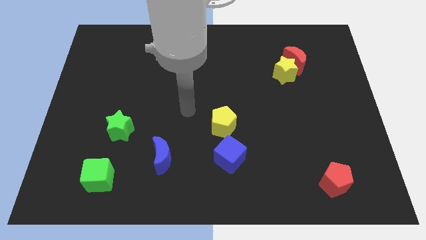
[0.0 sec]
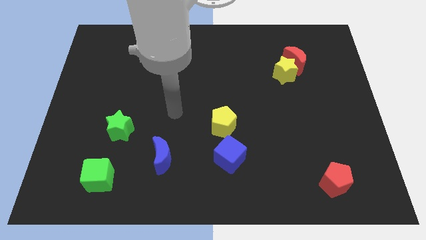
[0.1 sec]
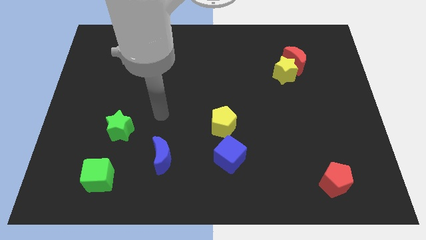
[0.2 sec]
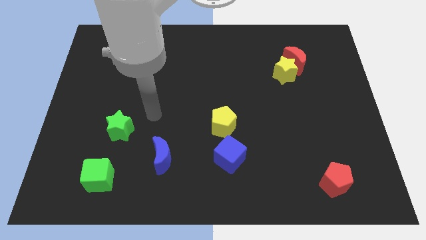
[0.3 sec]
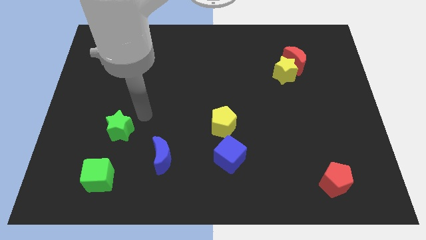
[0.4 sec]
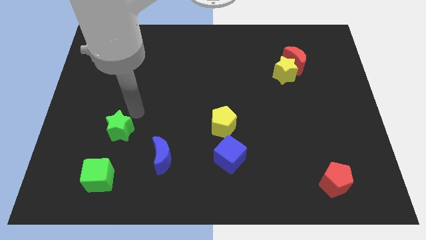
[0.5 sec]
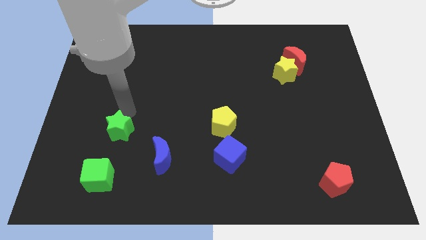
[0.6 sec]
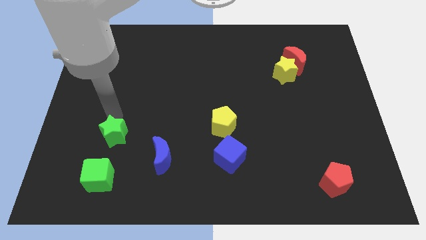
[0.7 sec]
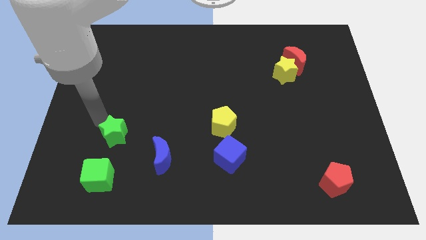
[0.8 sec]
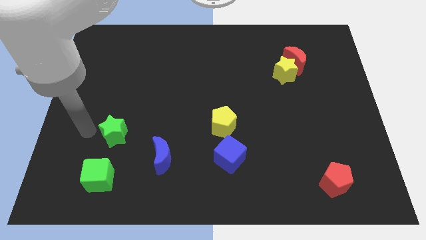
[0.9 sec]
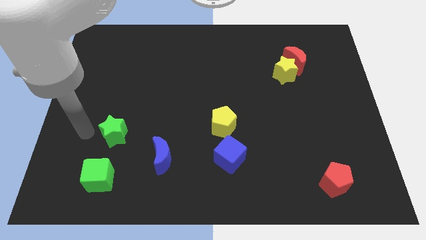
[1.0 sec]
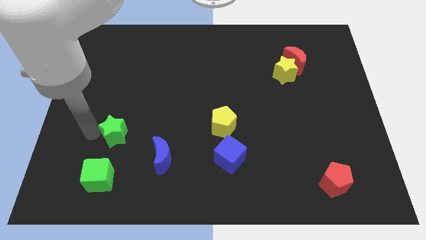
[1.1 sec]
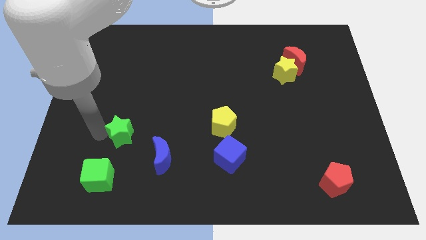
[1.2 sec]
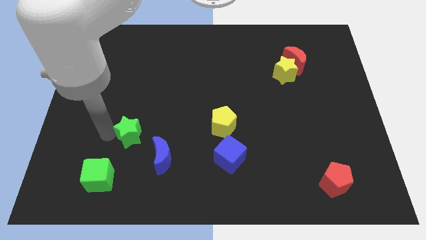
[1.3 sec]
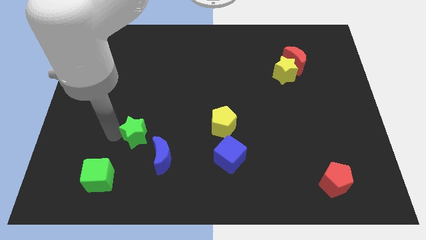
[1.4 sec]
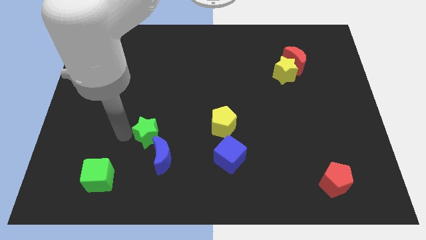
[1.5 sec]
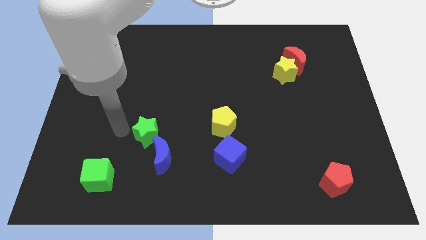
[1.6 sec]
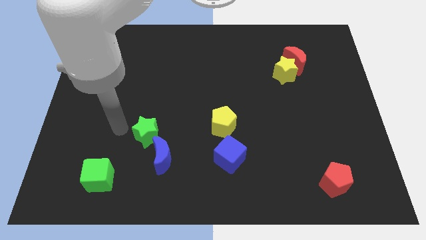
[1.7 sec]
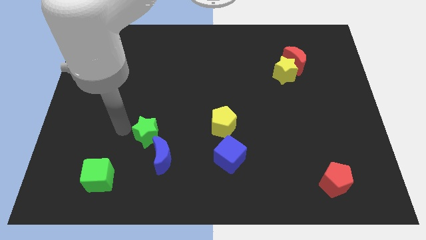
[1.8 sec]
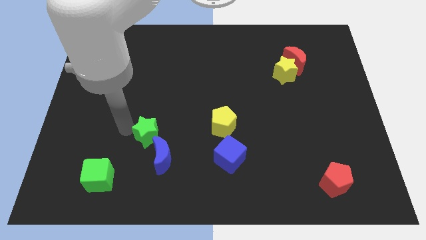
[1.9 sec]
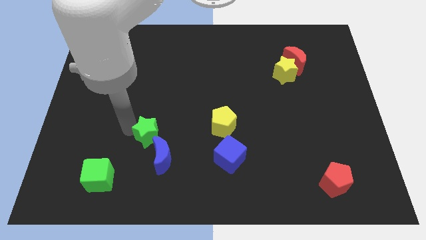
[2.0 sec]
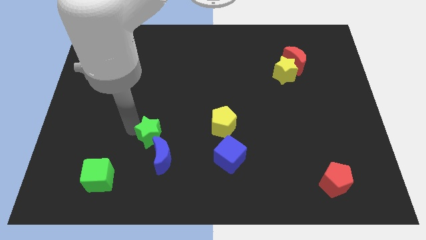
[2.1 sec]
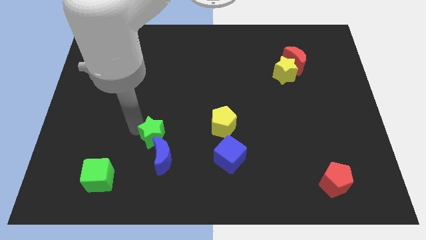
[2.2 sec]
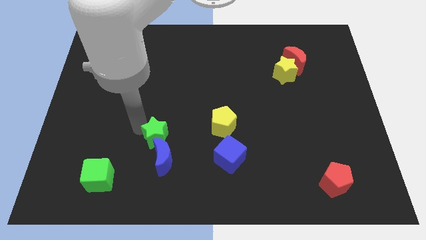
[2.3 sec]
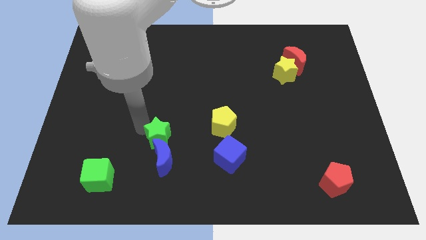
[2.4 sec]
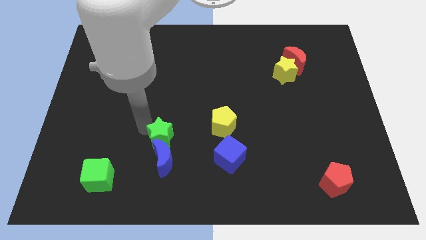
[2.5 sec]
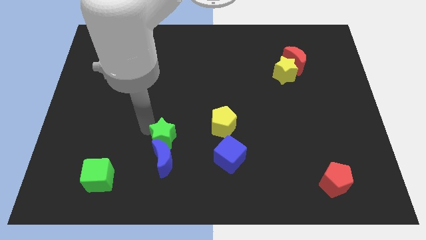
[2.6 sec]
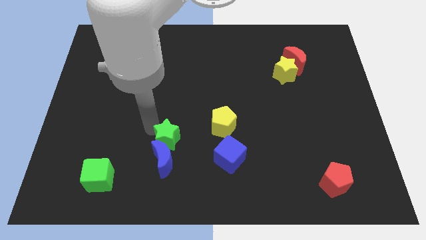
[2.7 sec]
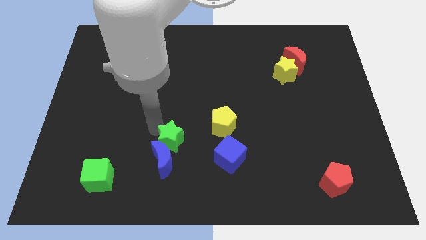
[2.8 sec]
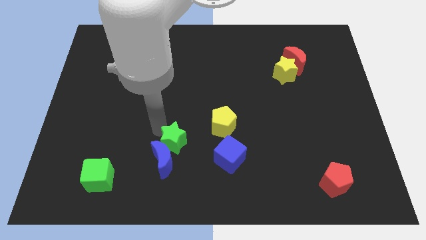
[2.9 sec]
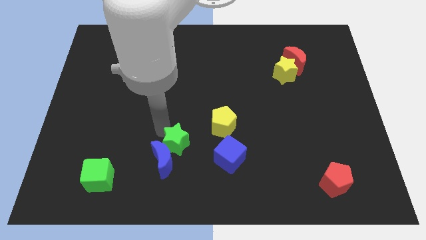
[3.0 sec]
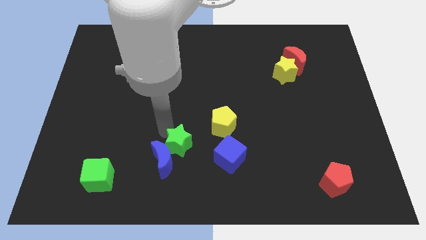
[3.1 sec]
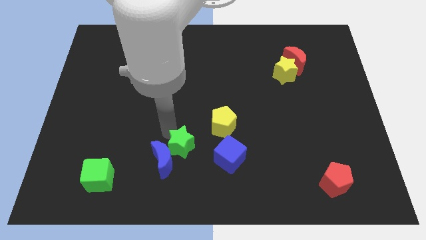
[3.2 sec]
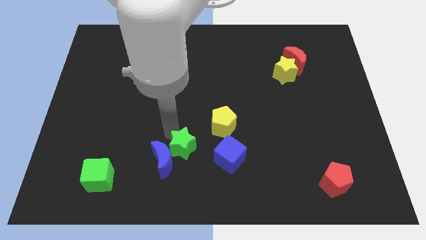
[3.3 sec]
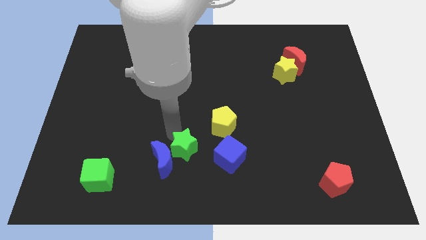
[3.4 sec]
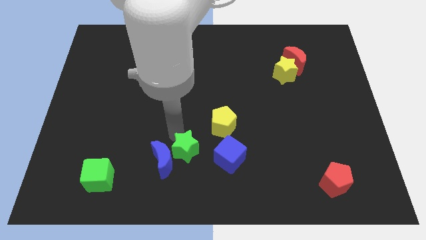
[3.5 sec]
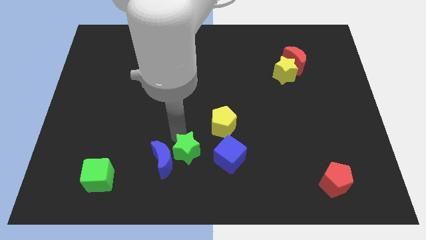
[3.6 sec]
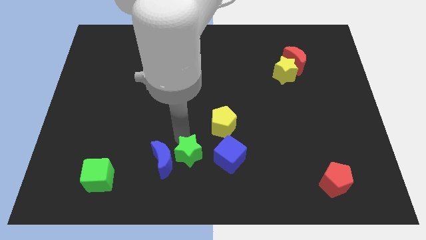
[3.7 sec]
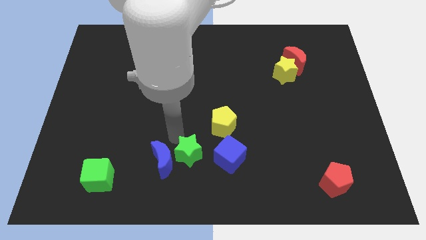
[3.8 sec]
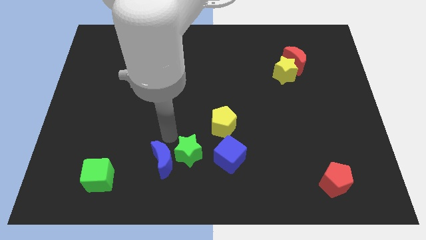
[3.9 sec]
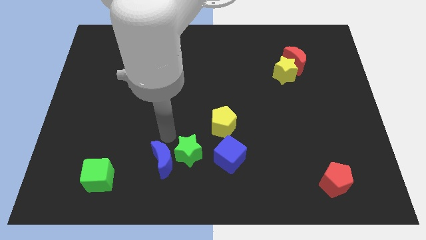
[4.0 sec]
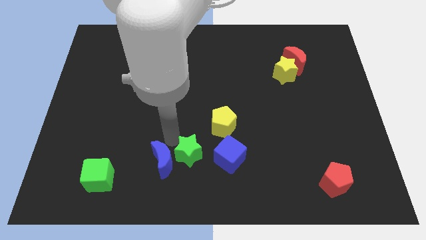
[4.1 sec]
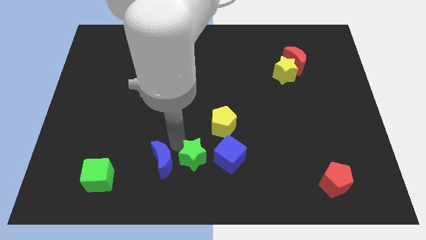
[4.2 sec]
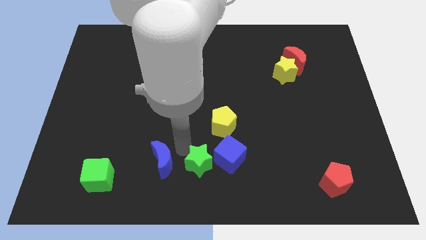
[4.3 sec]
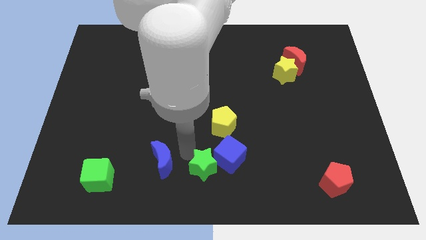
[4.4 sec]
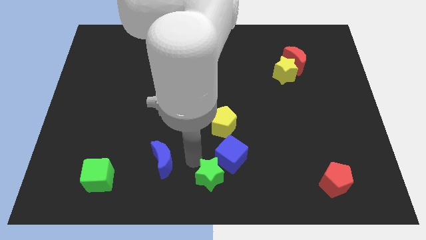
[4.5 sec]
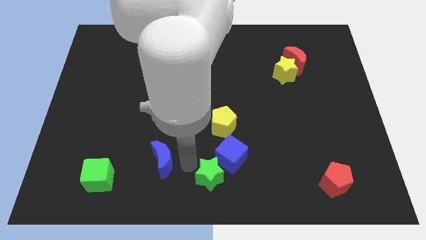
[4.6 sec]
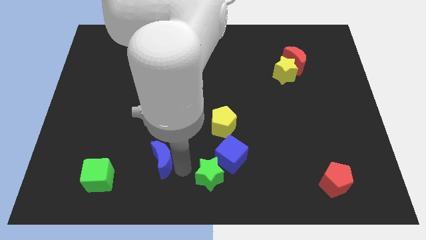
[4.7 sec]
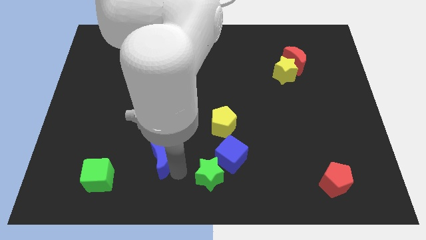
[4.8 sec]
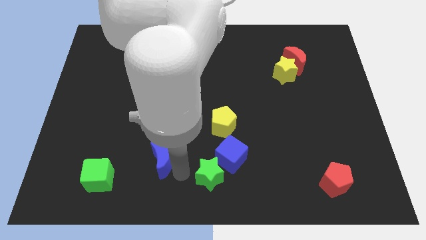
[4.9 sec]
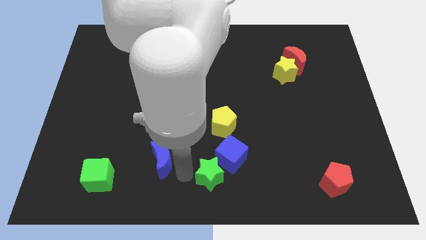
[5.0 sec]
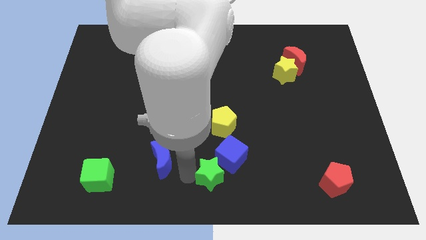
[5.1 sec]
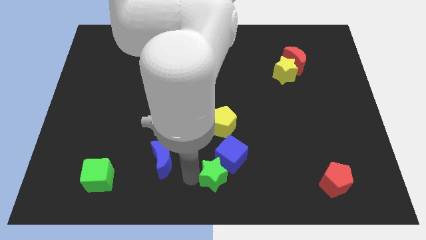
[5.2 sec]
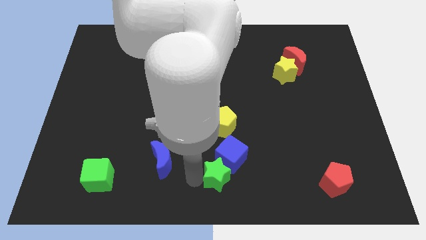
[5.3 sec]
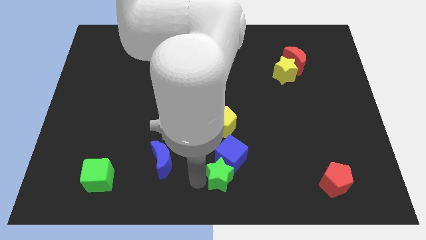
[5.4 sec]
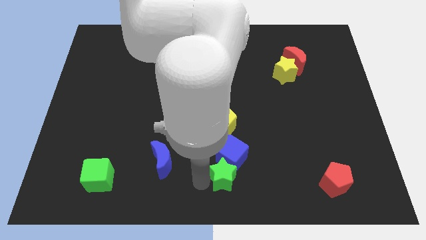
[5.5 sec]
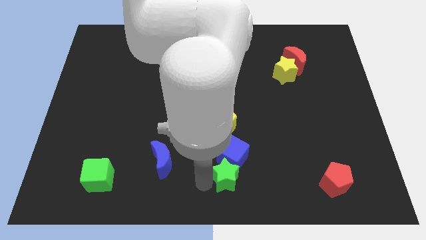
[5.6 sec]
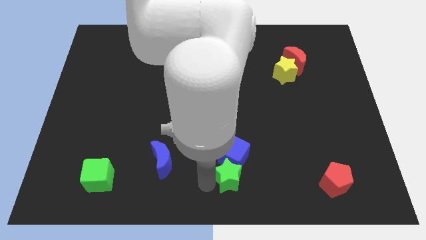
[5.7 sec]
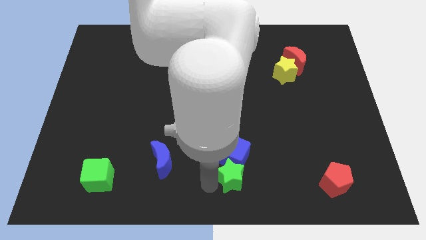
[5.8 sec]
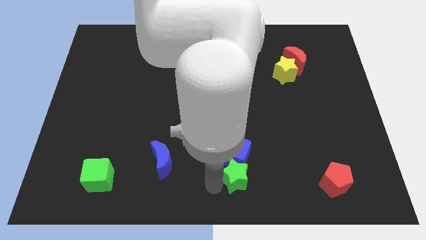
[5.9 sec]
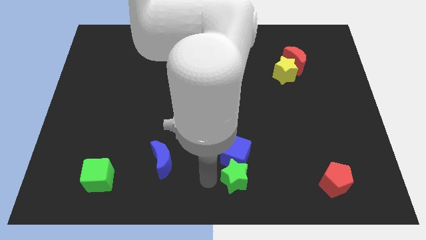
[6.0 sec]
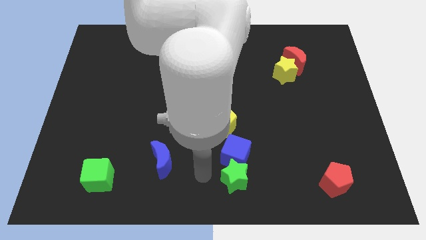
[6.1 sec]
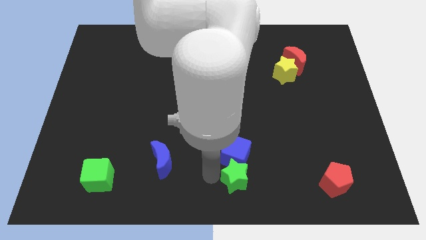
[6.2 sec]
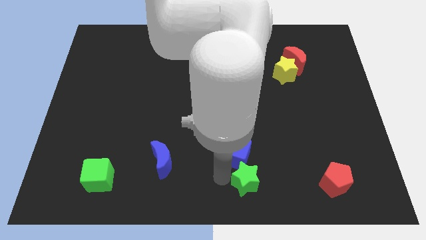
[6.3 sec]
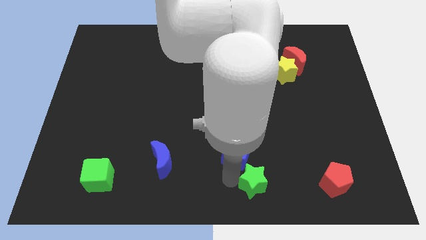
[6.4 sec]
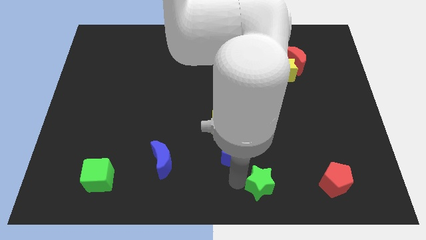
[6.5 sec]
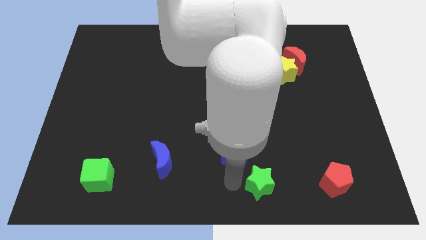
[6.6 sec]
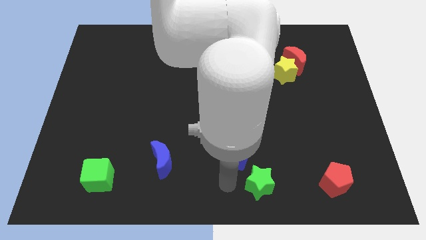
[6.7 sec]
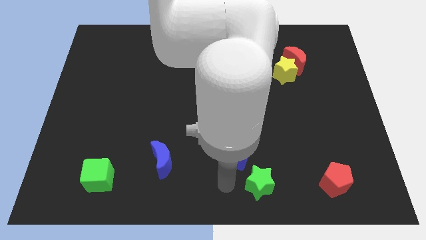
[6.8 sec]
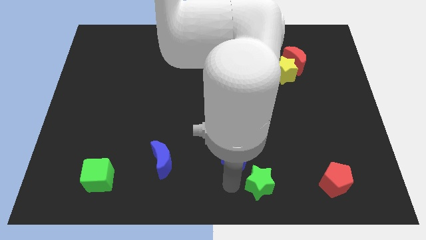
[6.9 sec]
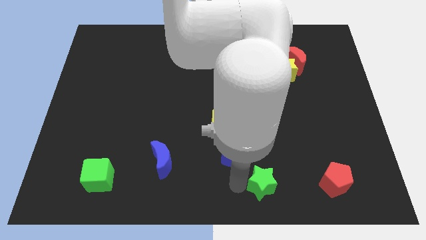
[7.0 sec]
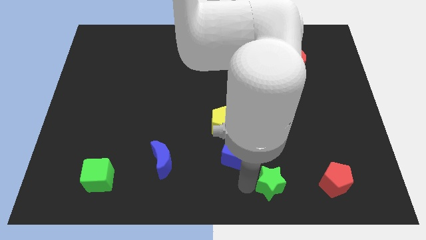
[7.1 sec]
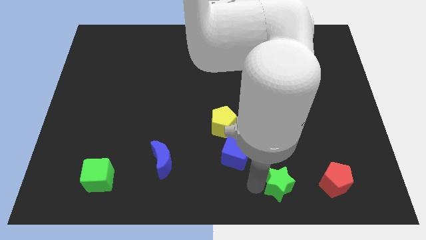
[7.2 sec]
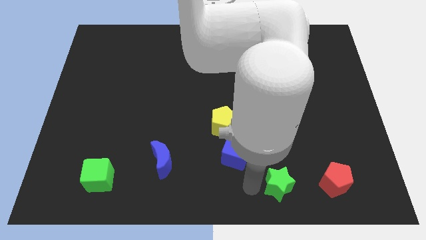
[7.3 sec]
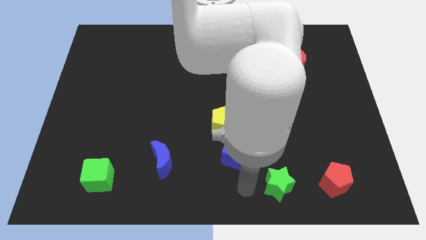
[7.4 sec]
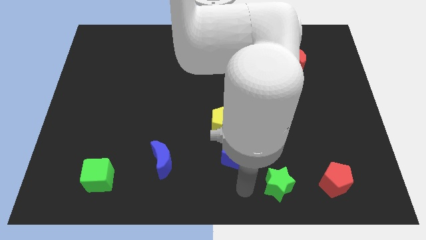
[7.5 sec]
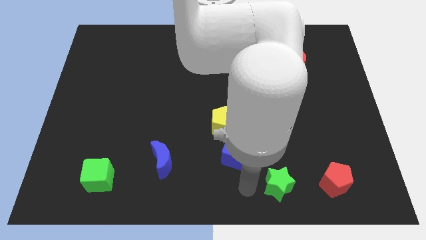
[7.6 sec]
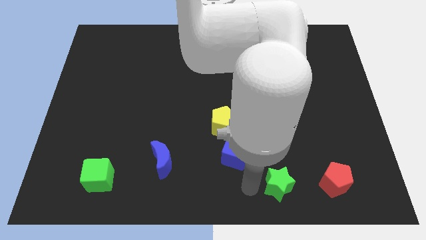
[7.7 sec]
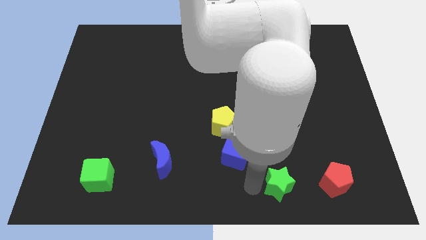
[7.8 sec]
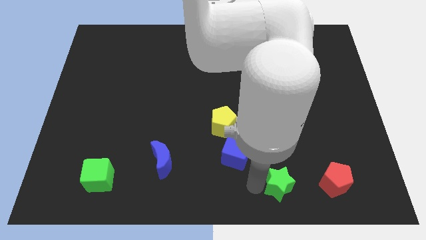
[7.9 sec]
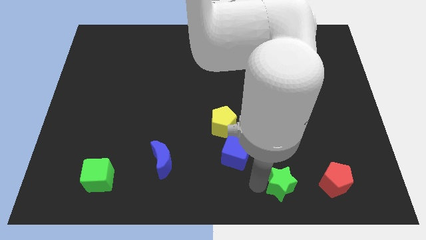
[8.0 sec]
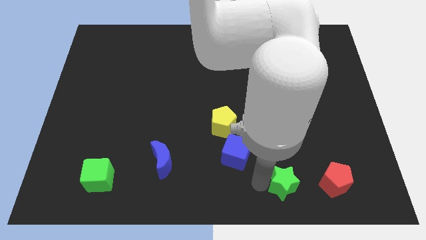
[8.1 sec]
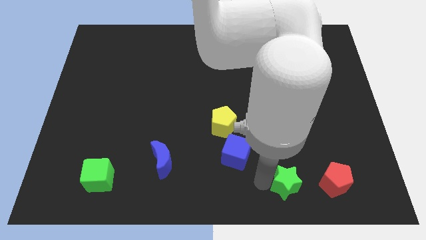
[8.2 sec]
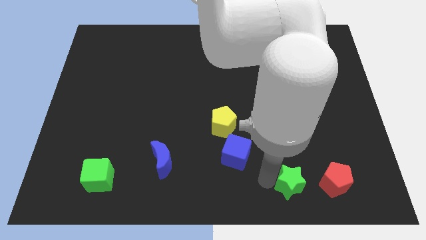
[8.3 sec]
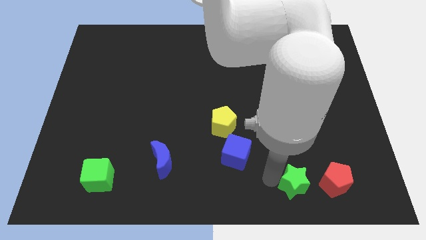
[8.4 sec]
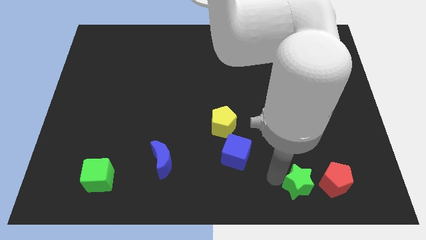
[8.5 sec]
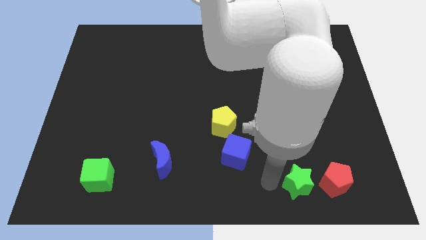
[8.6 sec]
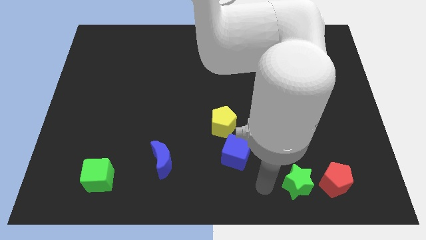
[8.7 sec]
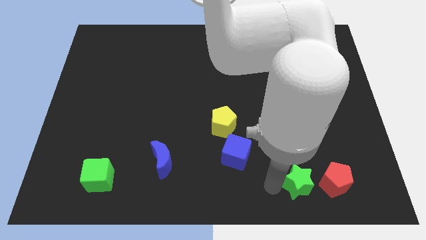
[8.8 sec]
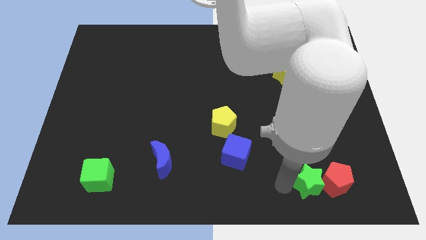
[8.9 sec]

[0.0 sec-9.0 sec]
put the green star next to the red pentagon
